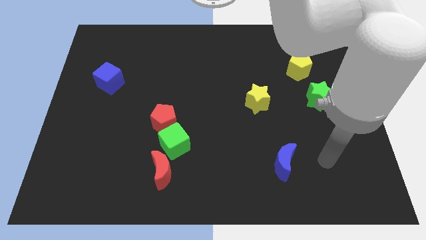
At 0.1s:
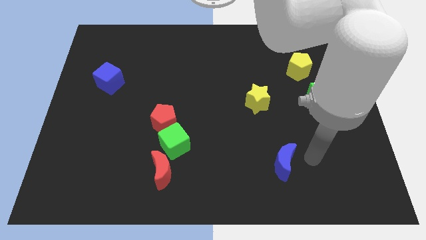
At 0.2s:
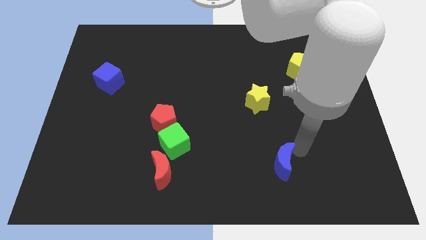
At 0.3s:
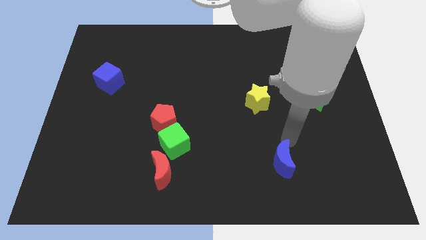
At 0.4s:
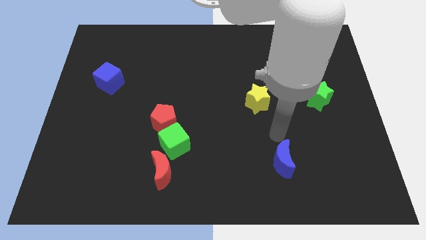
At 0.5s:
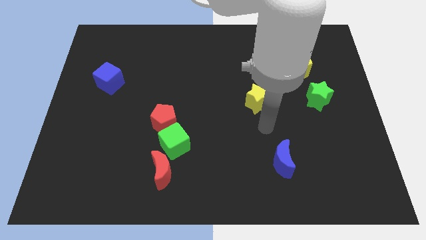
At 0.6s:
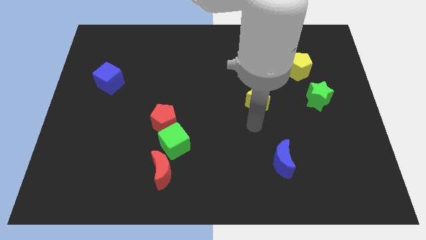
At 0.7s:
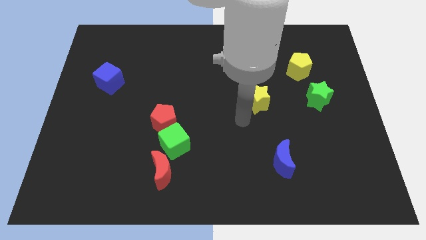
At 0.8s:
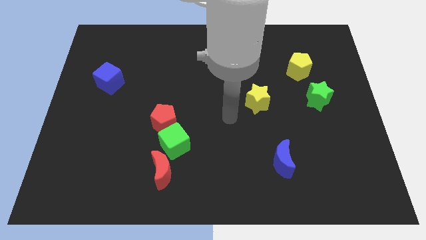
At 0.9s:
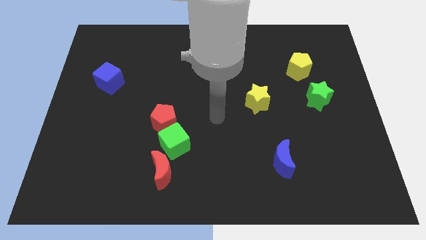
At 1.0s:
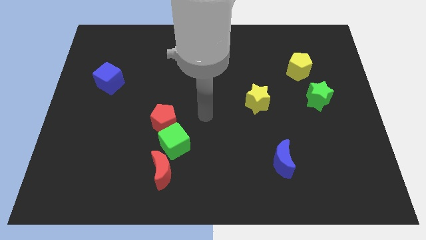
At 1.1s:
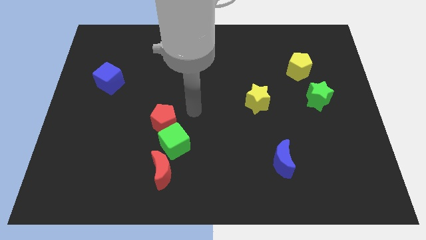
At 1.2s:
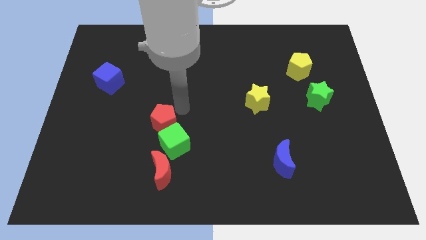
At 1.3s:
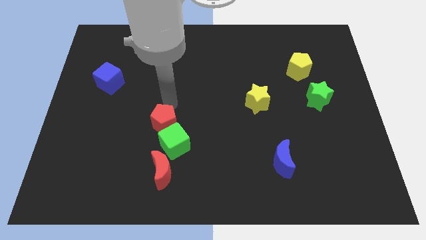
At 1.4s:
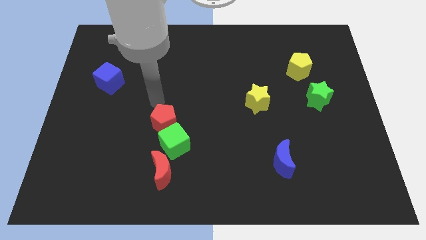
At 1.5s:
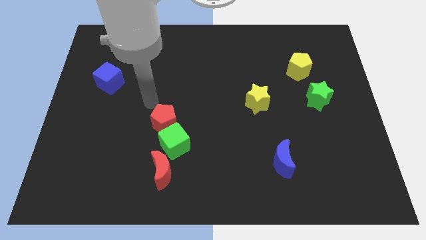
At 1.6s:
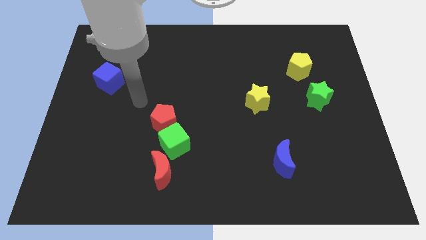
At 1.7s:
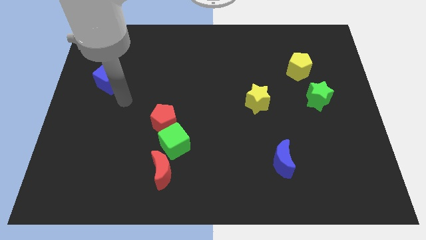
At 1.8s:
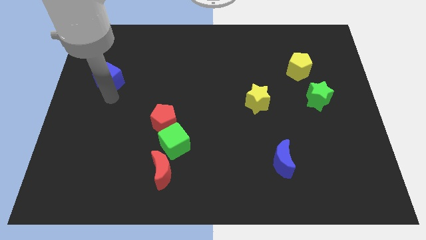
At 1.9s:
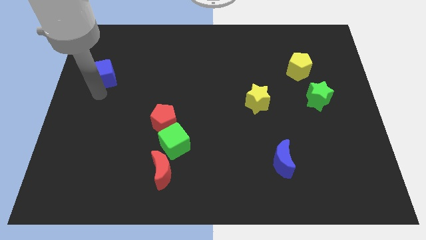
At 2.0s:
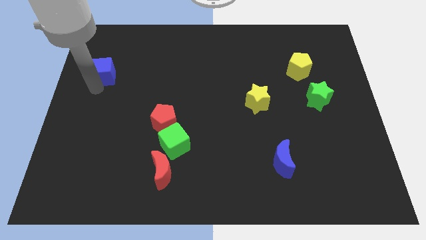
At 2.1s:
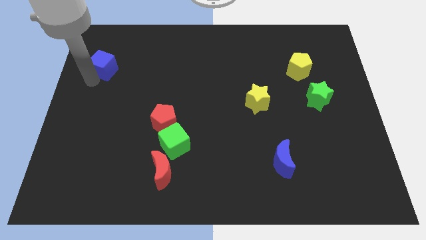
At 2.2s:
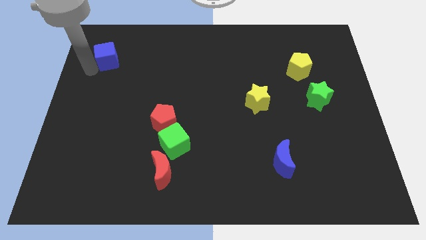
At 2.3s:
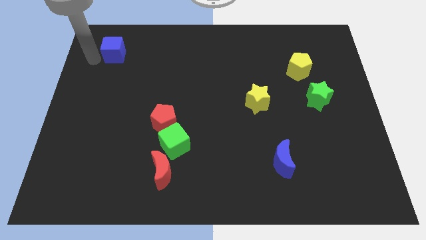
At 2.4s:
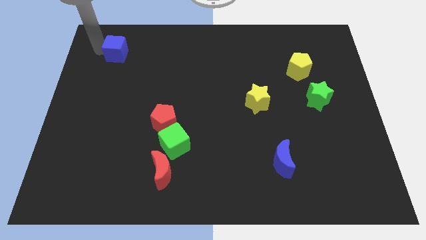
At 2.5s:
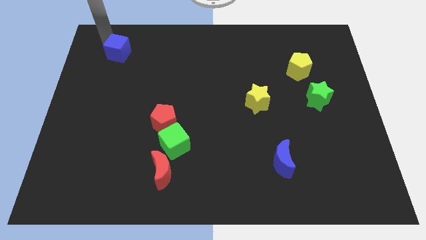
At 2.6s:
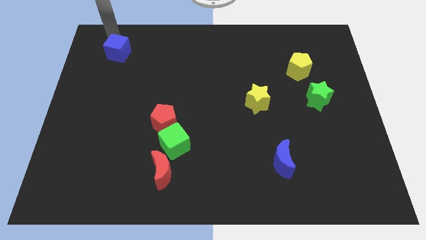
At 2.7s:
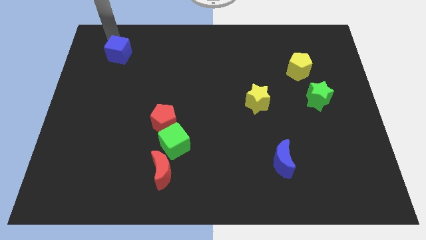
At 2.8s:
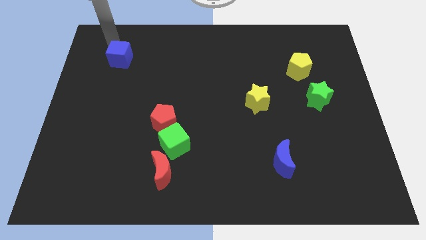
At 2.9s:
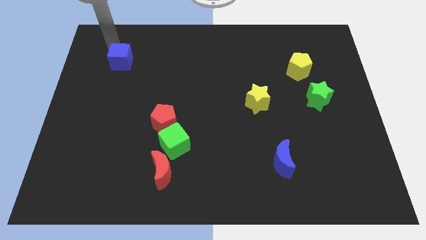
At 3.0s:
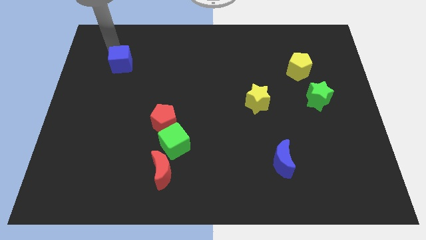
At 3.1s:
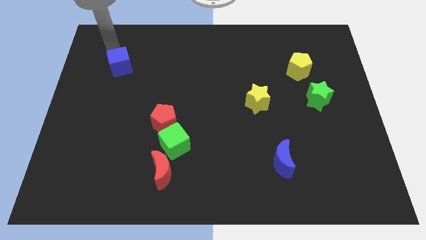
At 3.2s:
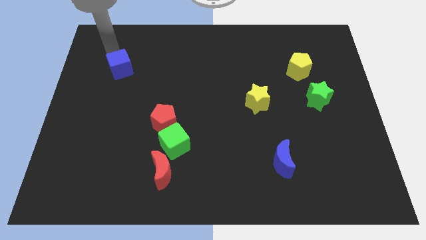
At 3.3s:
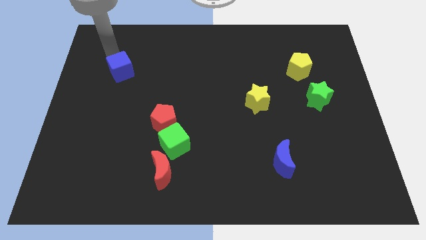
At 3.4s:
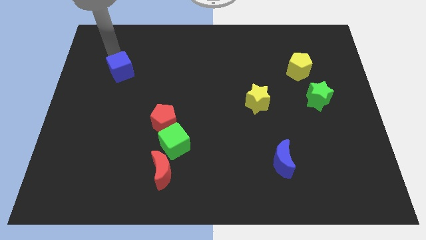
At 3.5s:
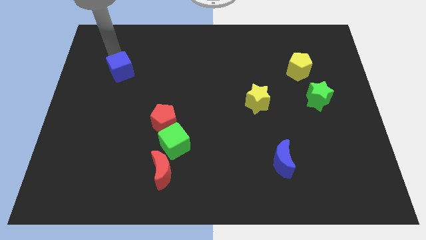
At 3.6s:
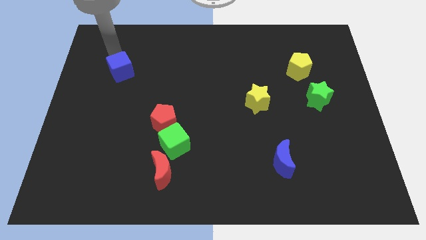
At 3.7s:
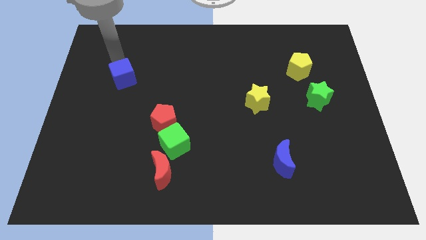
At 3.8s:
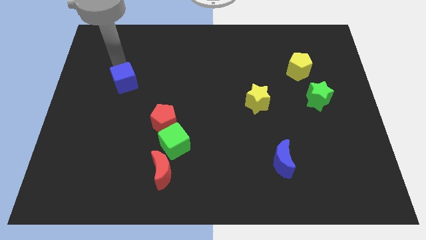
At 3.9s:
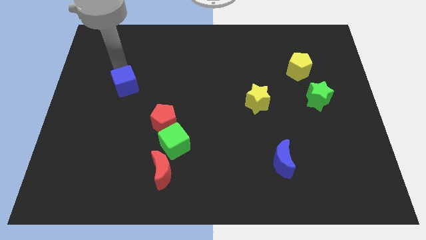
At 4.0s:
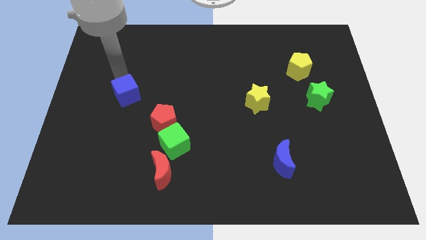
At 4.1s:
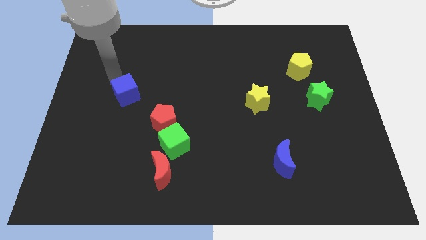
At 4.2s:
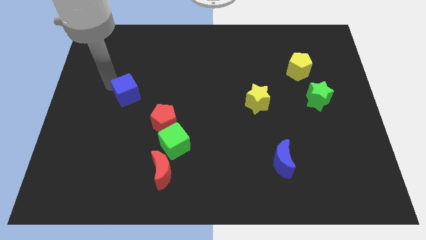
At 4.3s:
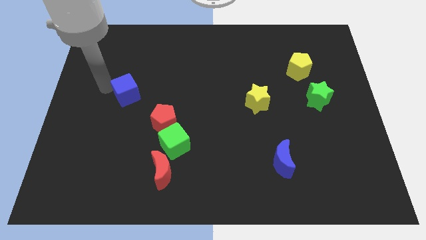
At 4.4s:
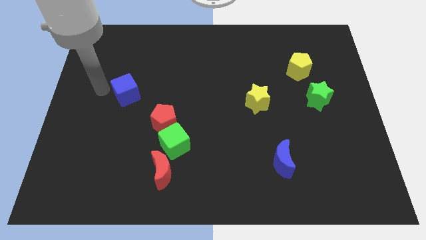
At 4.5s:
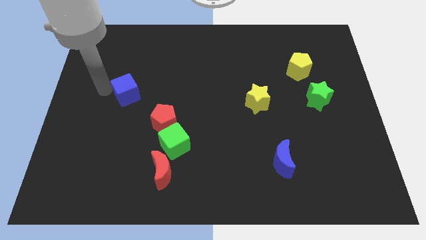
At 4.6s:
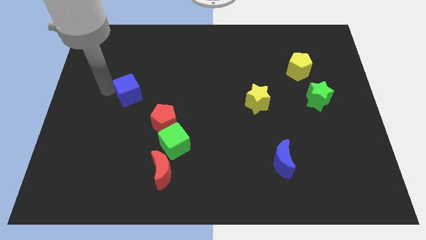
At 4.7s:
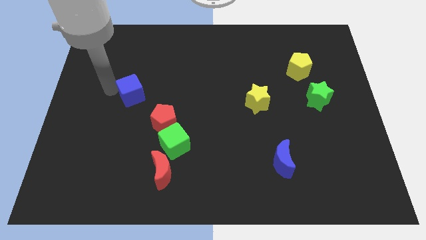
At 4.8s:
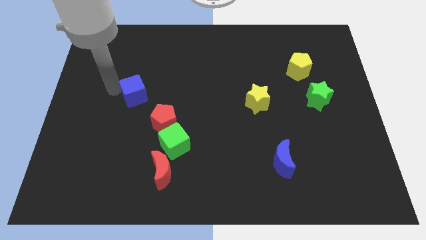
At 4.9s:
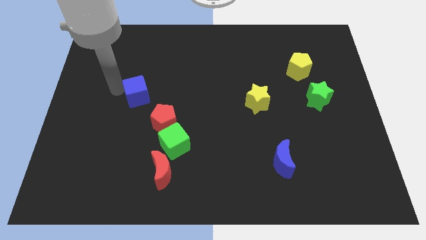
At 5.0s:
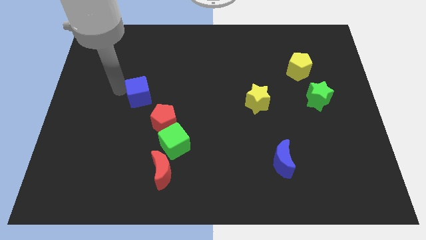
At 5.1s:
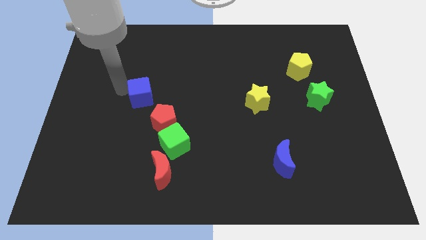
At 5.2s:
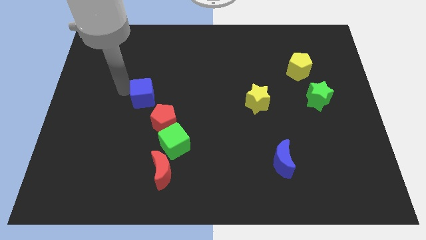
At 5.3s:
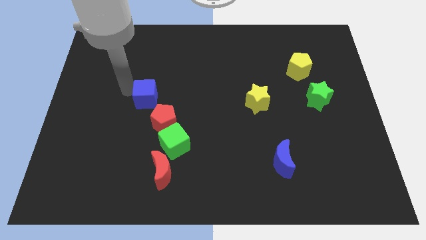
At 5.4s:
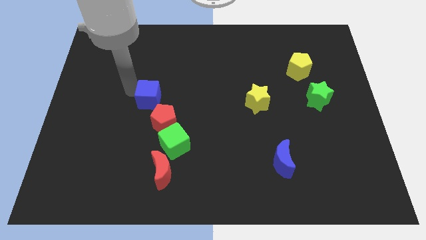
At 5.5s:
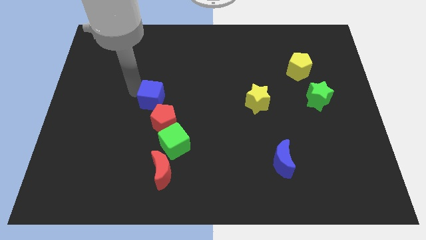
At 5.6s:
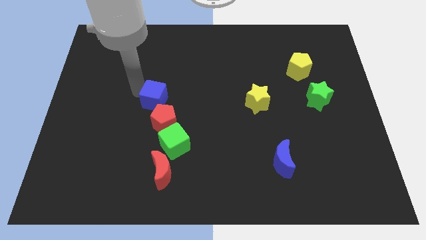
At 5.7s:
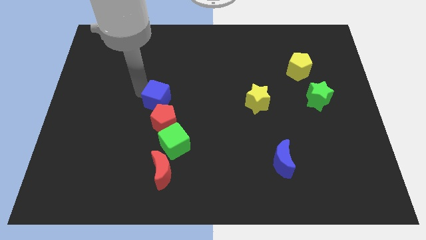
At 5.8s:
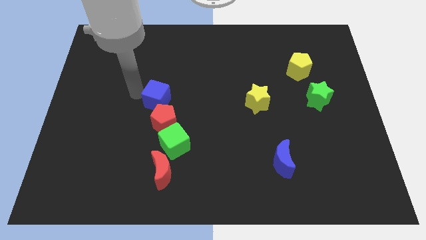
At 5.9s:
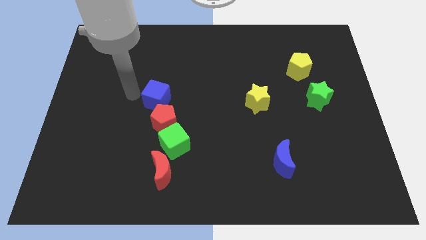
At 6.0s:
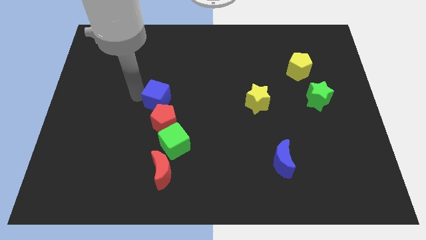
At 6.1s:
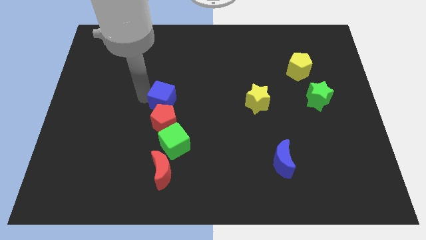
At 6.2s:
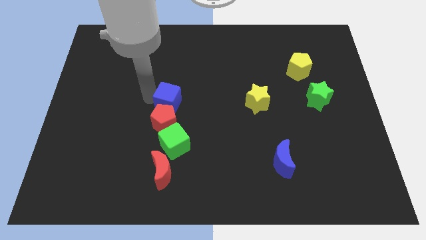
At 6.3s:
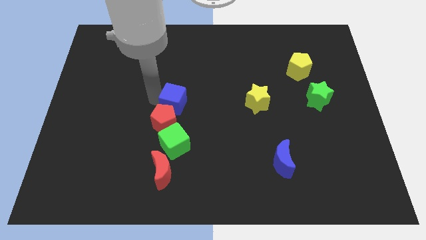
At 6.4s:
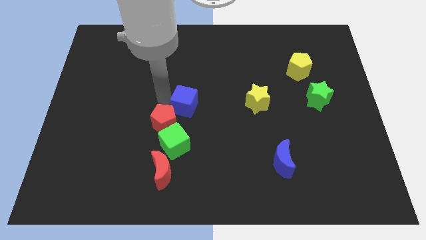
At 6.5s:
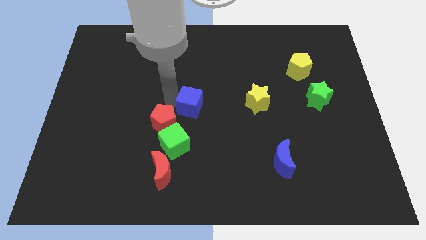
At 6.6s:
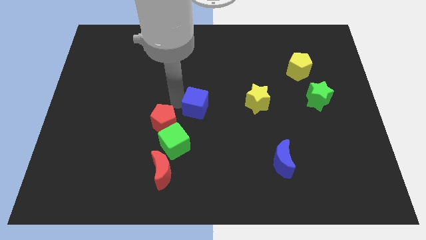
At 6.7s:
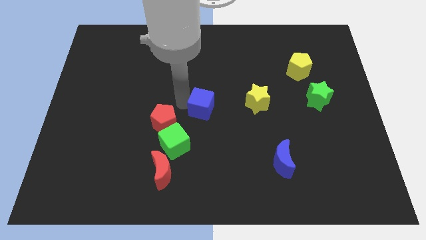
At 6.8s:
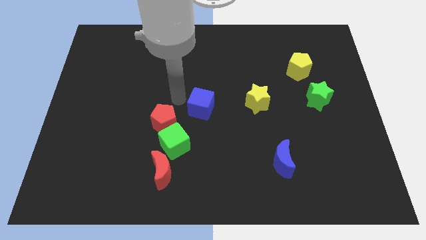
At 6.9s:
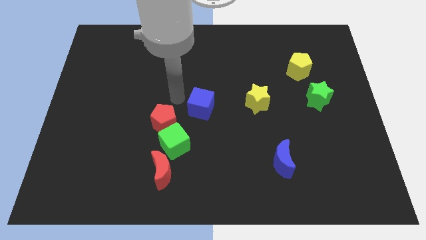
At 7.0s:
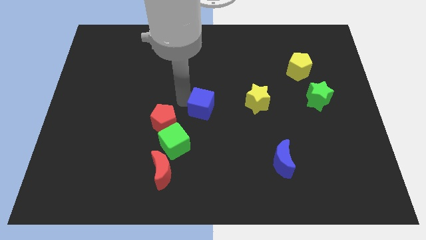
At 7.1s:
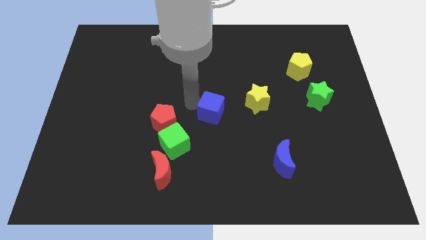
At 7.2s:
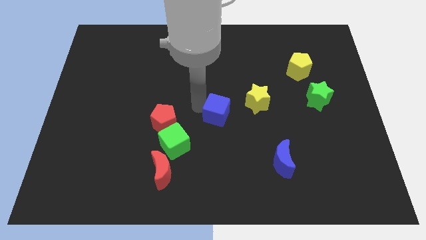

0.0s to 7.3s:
push the blue cube diagonally down and to the left of the yellow star
